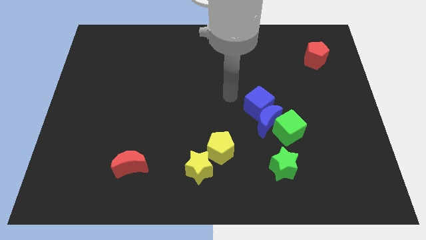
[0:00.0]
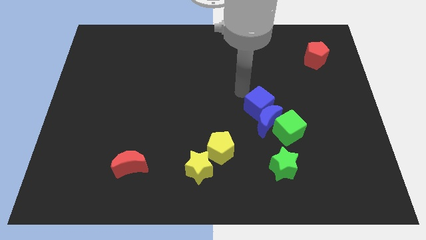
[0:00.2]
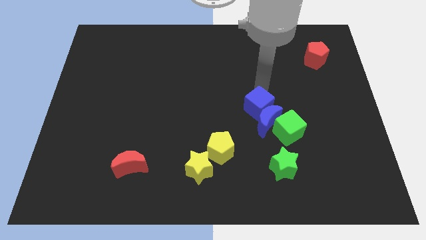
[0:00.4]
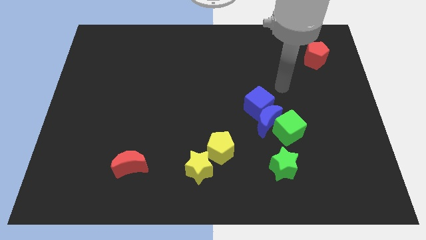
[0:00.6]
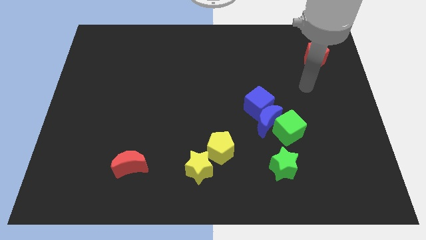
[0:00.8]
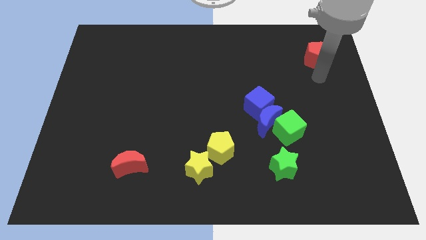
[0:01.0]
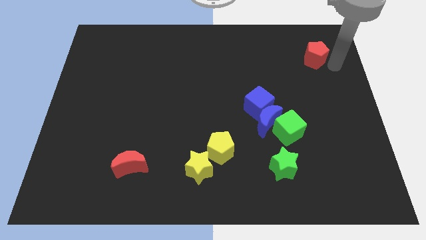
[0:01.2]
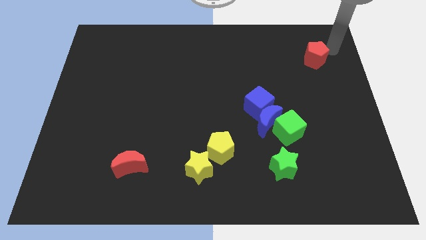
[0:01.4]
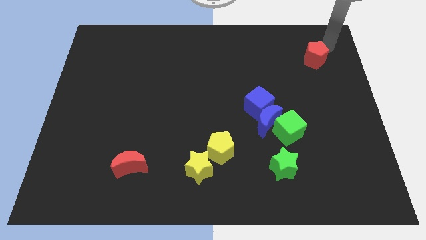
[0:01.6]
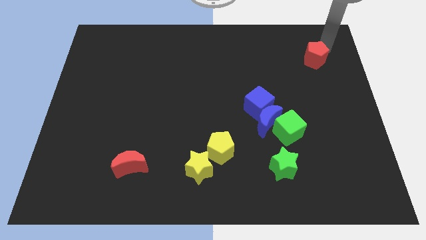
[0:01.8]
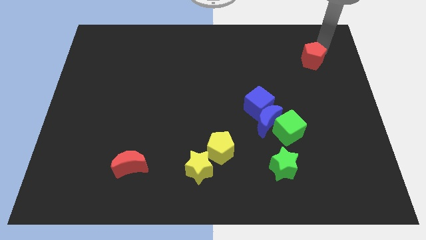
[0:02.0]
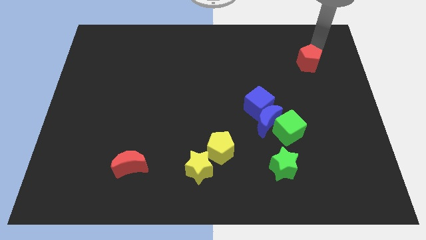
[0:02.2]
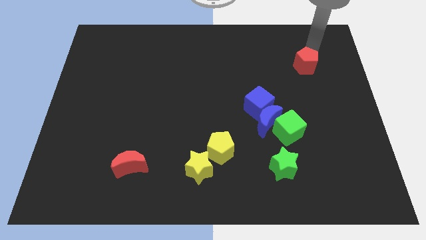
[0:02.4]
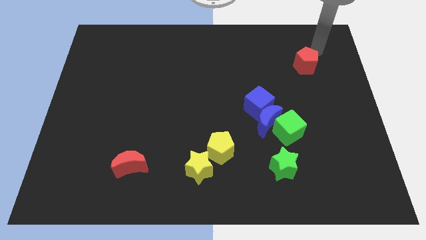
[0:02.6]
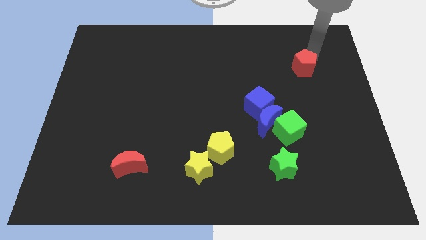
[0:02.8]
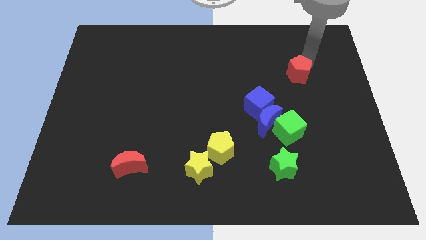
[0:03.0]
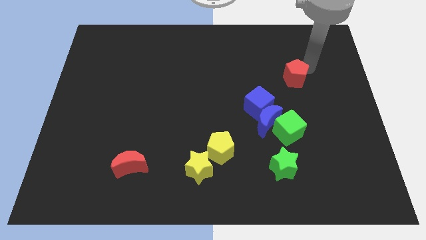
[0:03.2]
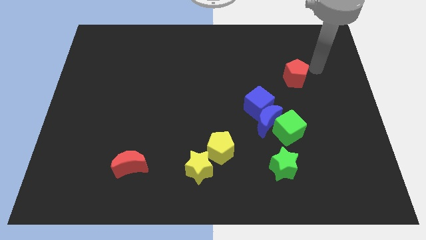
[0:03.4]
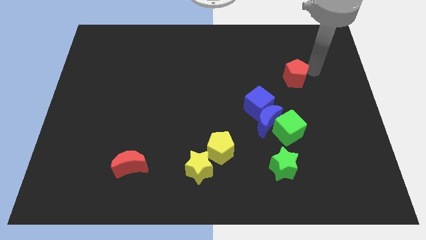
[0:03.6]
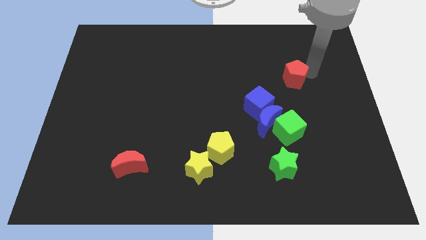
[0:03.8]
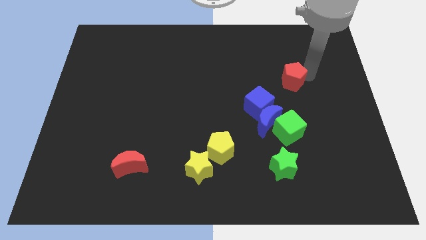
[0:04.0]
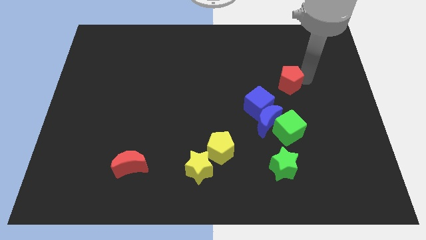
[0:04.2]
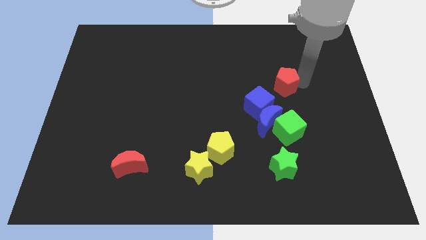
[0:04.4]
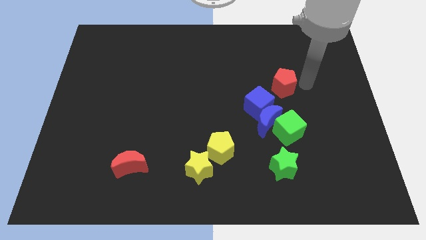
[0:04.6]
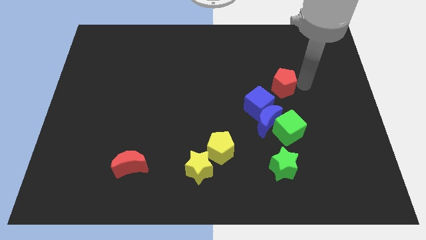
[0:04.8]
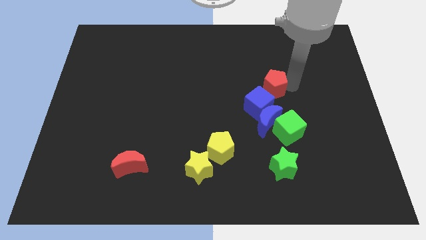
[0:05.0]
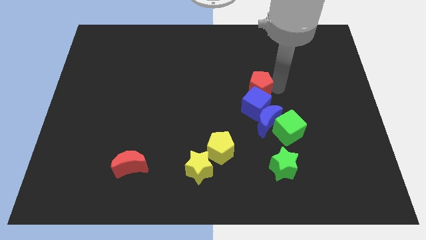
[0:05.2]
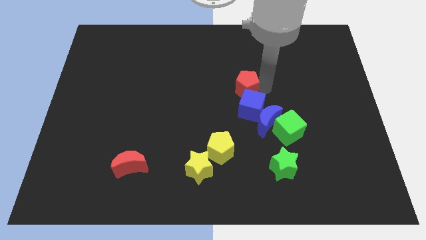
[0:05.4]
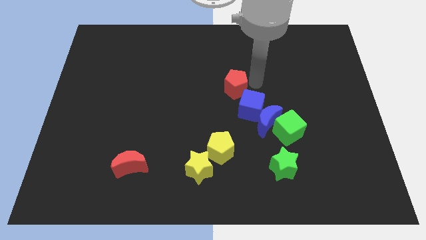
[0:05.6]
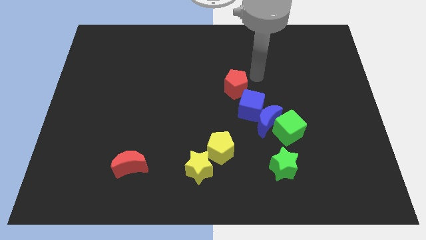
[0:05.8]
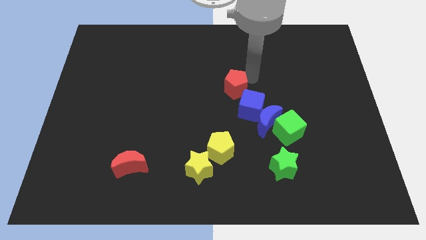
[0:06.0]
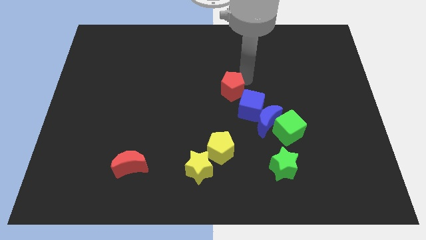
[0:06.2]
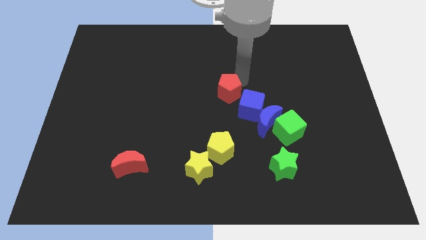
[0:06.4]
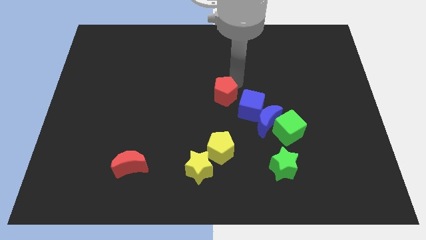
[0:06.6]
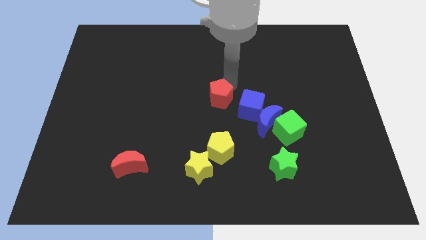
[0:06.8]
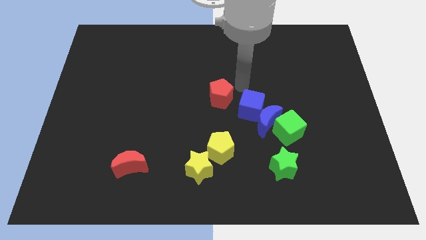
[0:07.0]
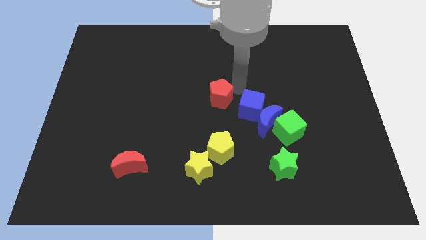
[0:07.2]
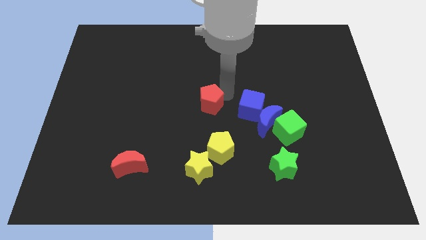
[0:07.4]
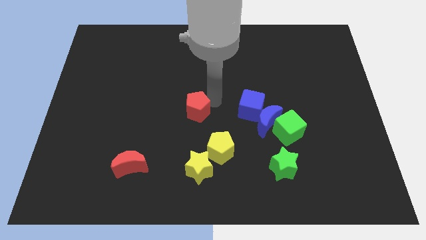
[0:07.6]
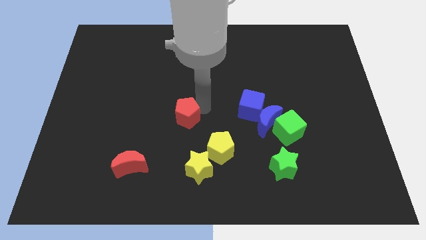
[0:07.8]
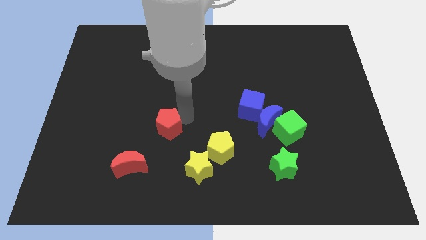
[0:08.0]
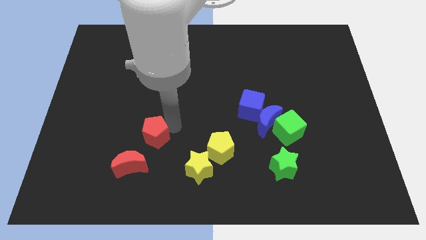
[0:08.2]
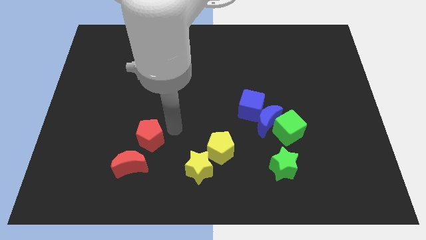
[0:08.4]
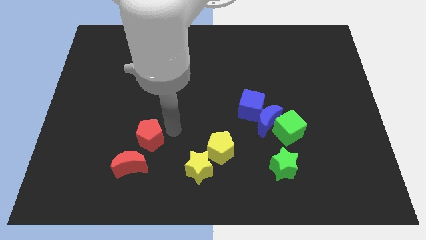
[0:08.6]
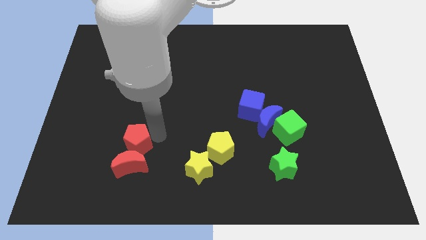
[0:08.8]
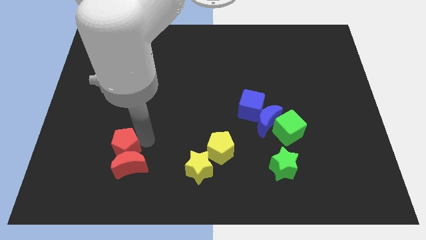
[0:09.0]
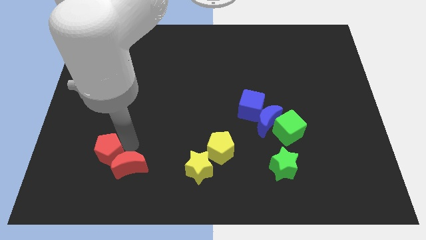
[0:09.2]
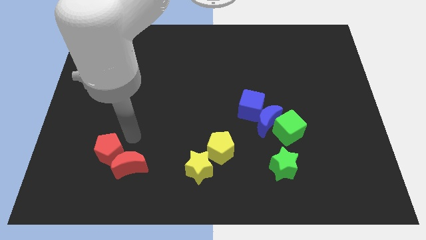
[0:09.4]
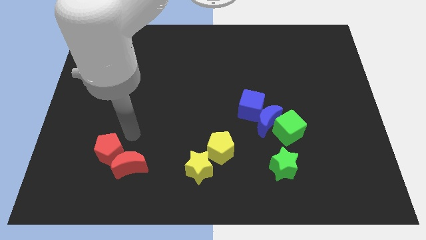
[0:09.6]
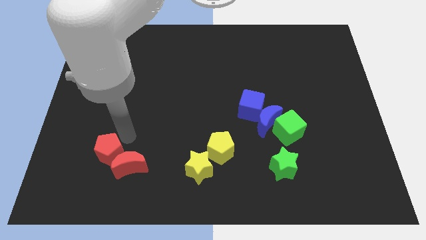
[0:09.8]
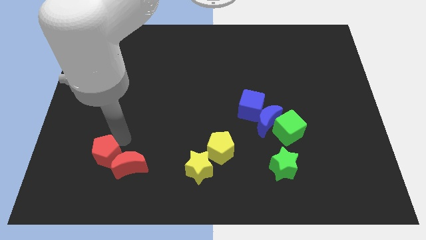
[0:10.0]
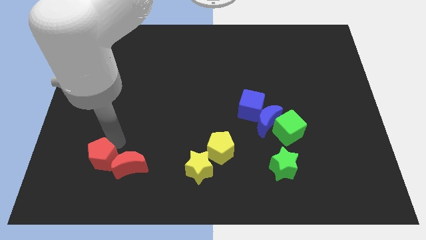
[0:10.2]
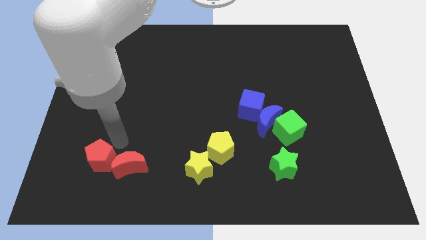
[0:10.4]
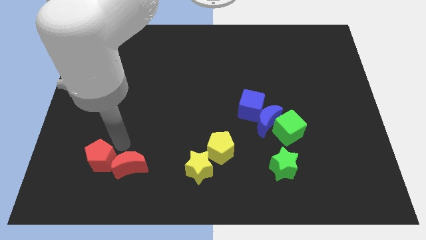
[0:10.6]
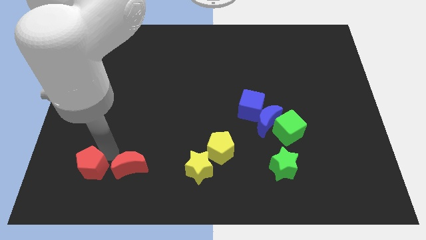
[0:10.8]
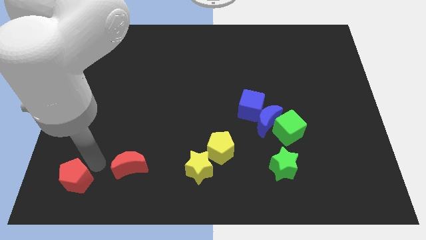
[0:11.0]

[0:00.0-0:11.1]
move the red pentagon to the bottom left of the board

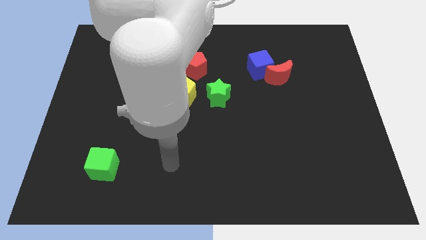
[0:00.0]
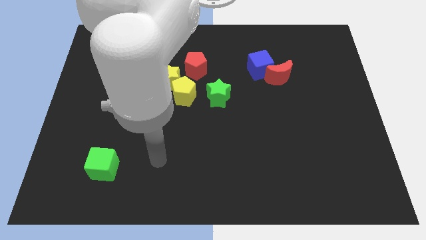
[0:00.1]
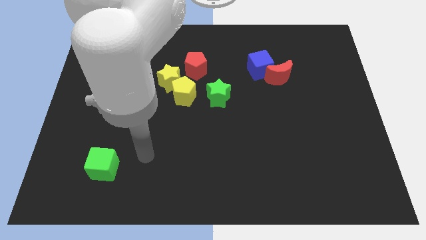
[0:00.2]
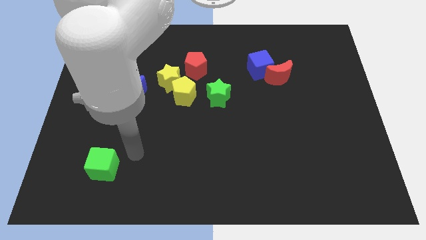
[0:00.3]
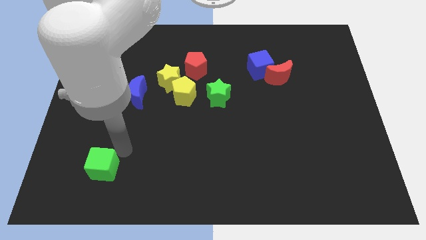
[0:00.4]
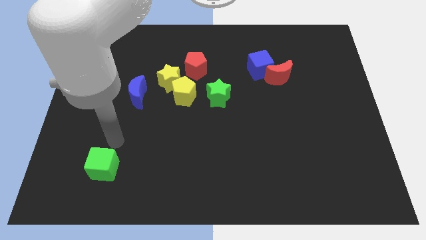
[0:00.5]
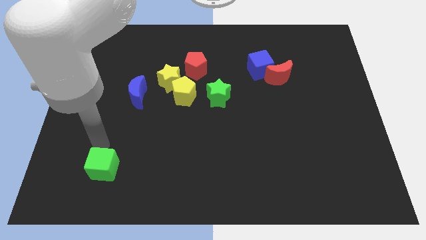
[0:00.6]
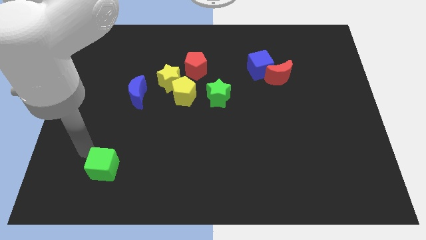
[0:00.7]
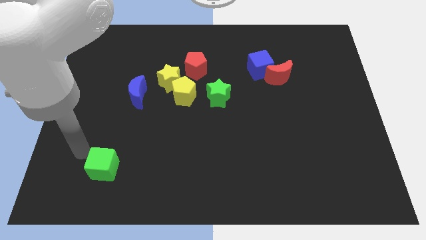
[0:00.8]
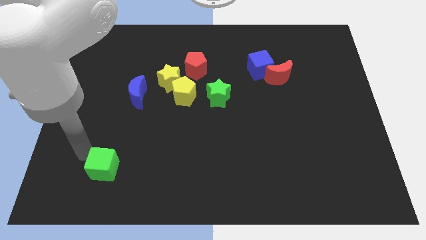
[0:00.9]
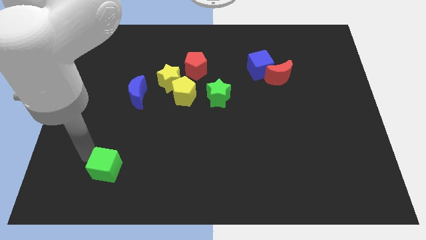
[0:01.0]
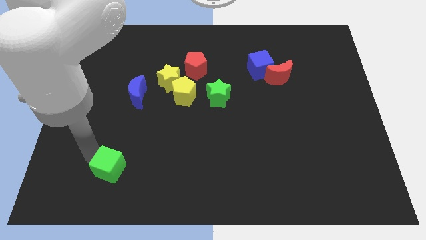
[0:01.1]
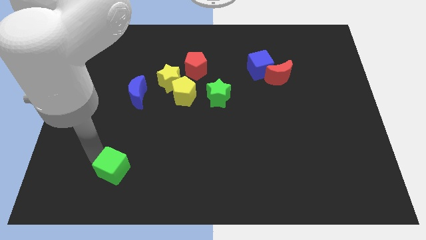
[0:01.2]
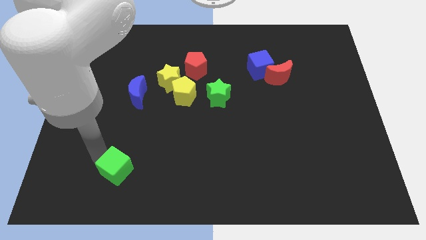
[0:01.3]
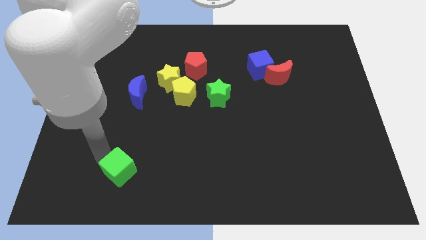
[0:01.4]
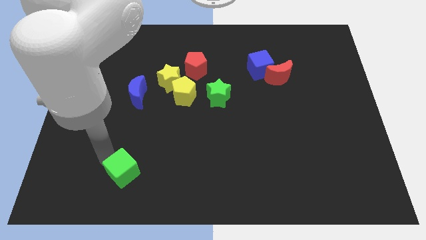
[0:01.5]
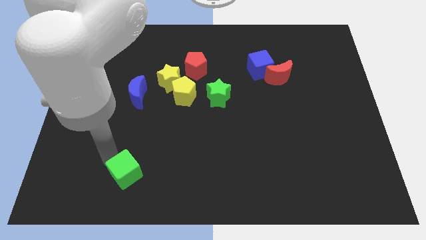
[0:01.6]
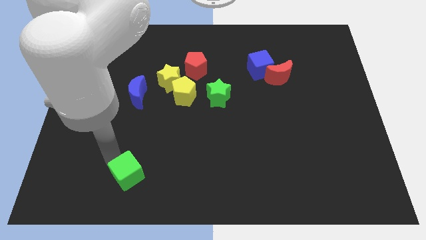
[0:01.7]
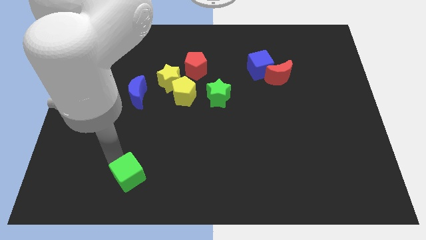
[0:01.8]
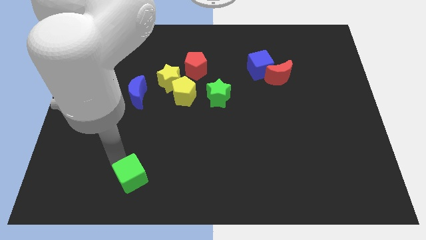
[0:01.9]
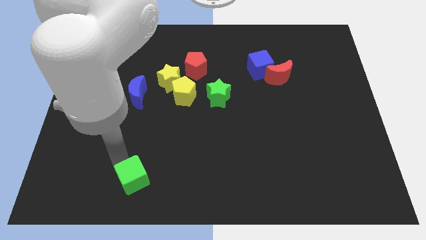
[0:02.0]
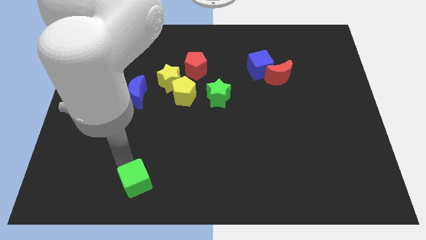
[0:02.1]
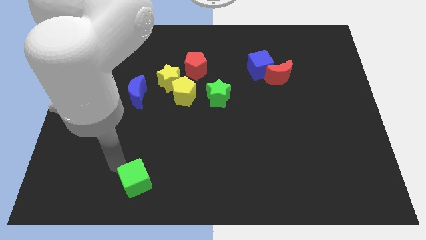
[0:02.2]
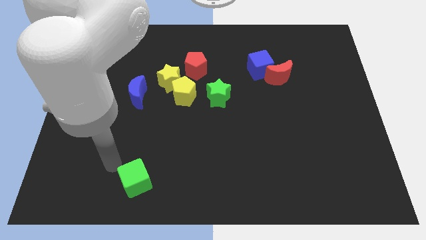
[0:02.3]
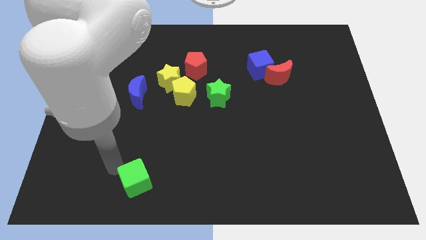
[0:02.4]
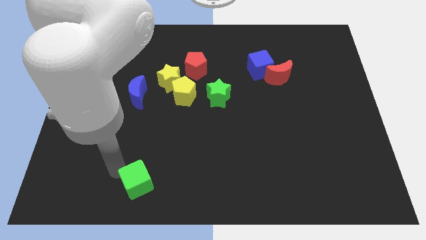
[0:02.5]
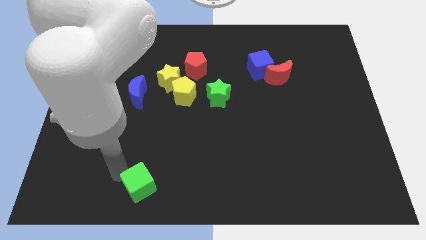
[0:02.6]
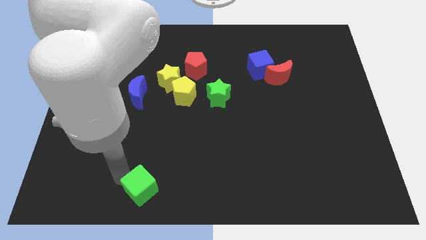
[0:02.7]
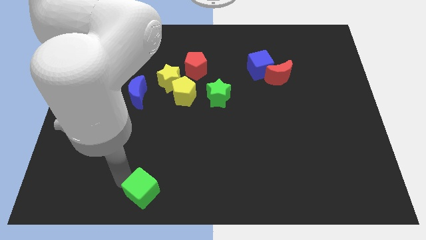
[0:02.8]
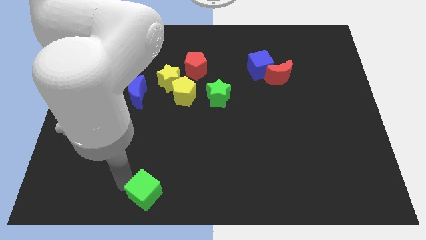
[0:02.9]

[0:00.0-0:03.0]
slide the green cube to the bottom

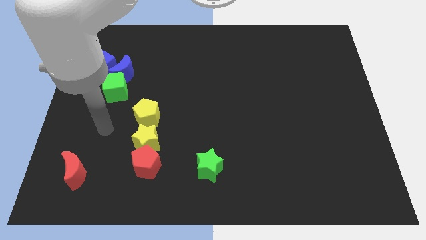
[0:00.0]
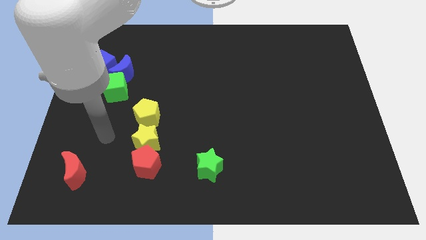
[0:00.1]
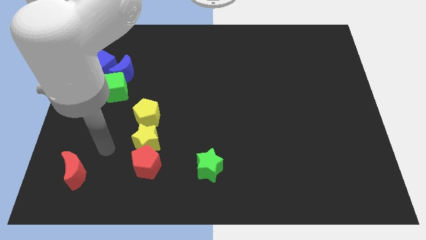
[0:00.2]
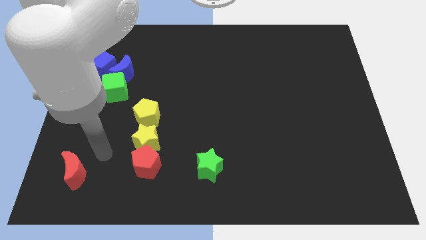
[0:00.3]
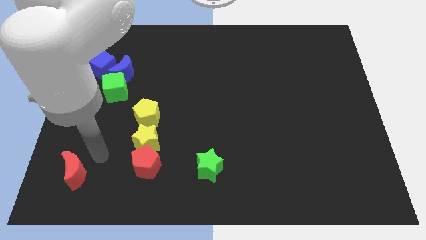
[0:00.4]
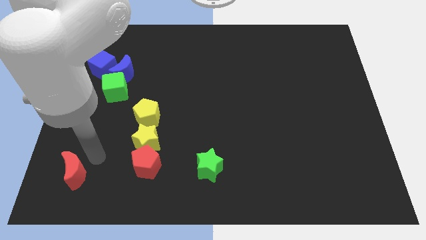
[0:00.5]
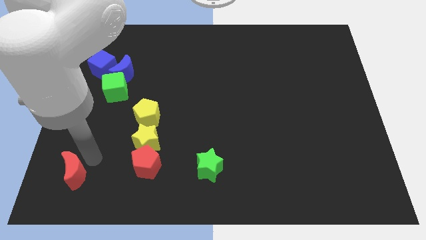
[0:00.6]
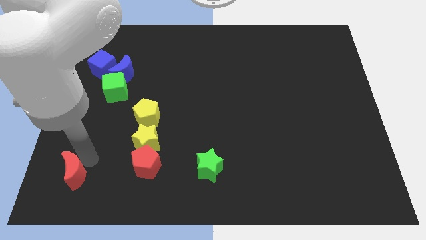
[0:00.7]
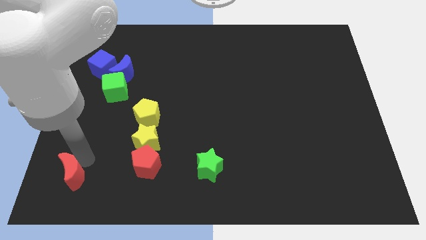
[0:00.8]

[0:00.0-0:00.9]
push the red moon to the bottom left corner
